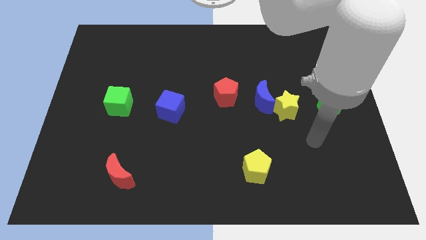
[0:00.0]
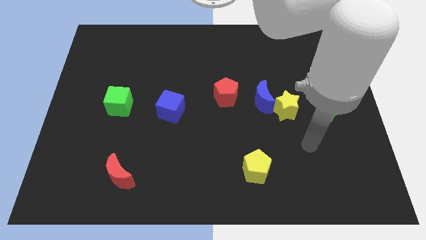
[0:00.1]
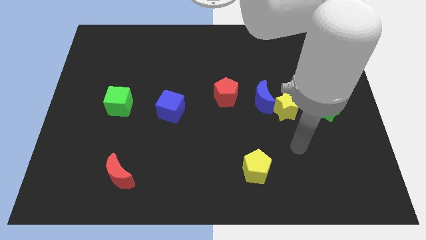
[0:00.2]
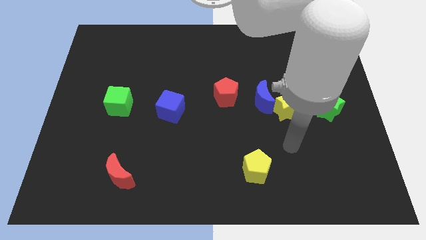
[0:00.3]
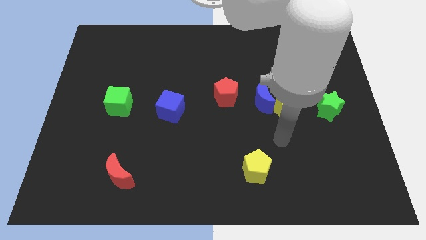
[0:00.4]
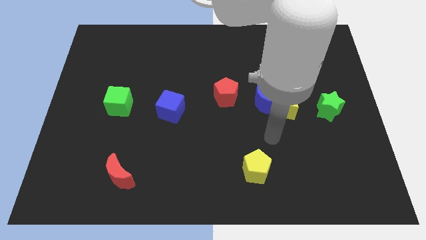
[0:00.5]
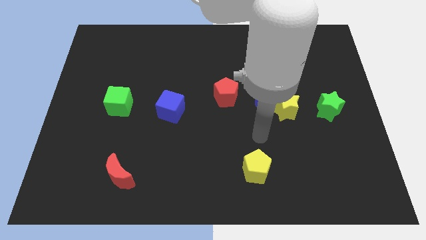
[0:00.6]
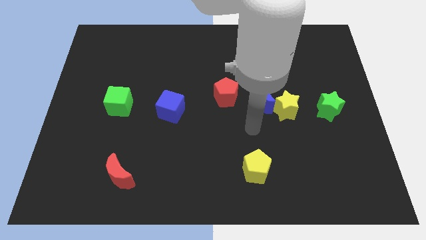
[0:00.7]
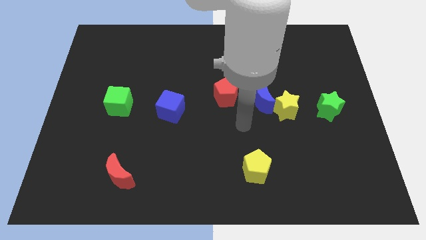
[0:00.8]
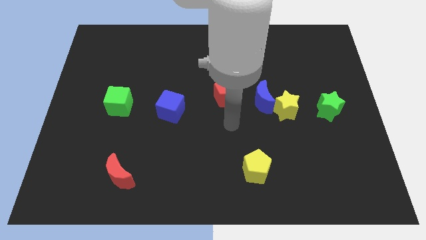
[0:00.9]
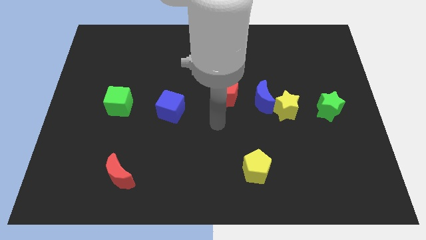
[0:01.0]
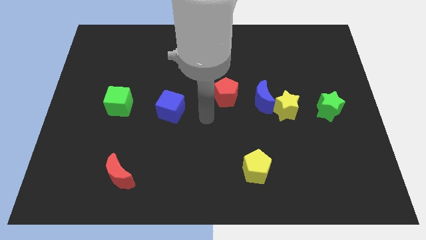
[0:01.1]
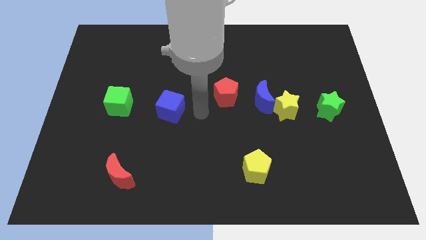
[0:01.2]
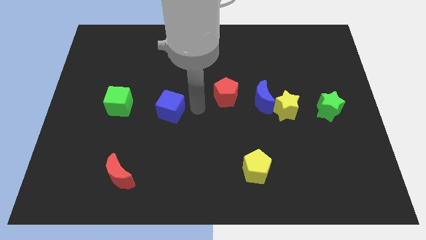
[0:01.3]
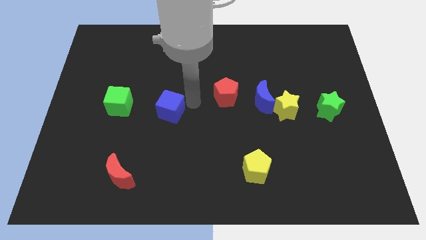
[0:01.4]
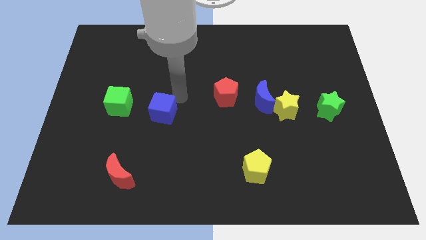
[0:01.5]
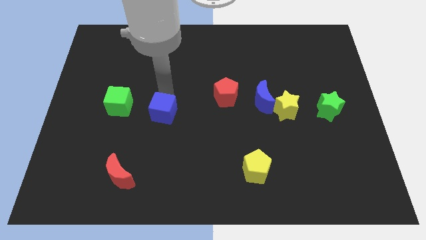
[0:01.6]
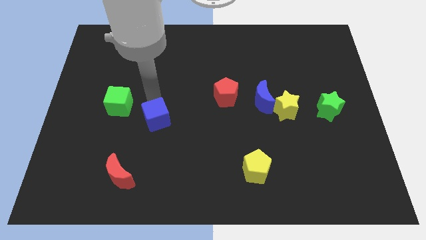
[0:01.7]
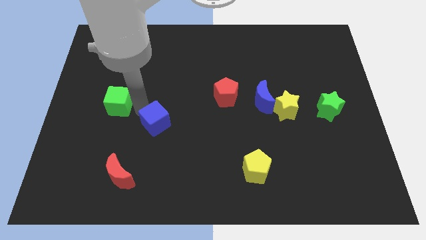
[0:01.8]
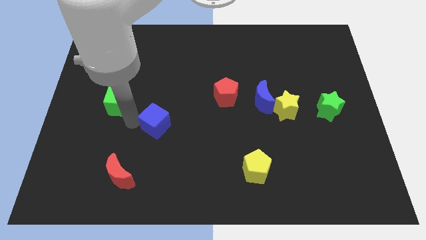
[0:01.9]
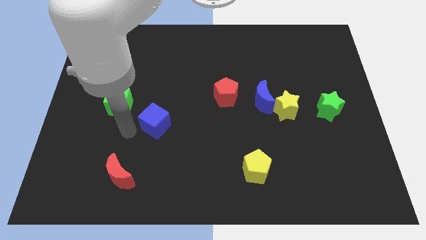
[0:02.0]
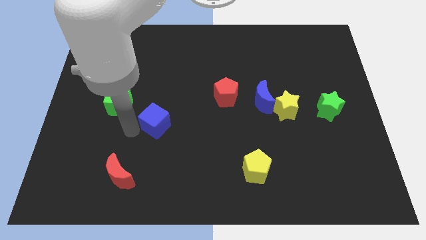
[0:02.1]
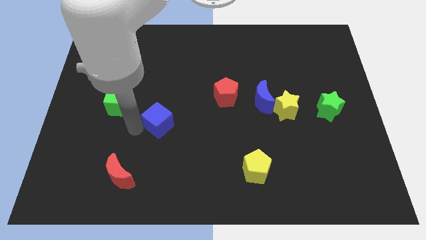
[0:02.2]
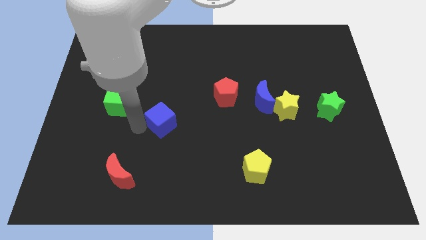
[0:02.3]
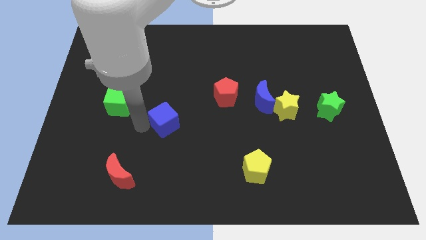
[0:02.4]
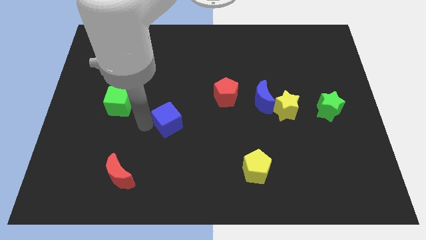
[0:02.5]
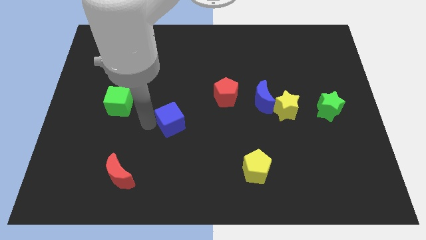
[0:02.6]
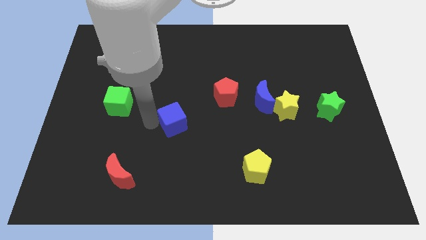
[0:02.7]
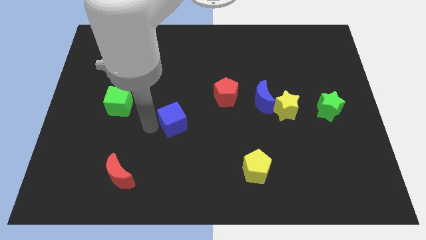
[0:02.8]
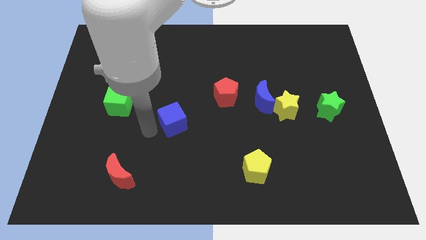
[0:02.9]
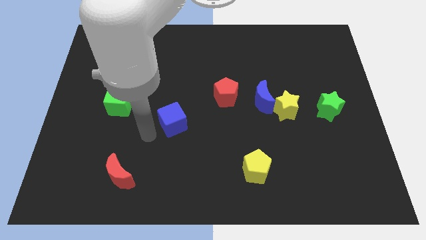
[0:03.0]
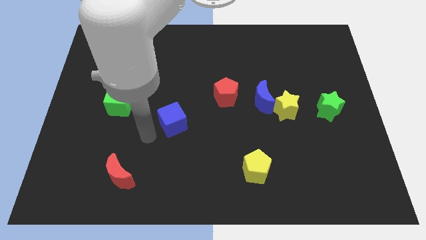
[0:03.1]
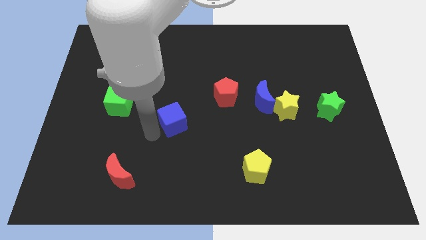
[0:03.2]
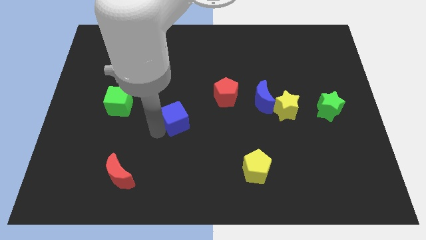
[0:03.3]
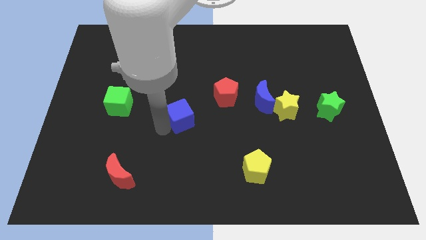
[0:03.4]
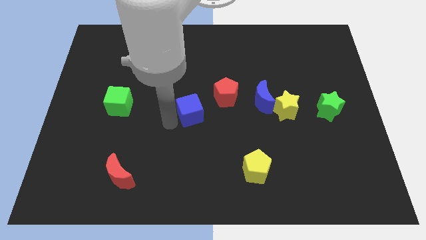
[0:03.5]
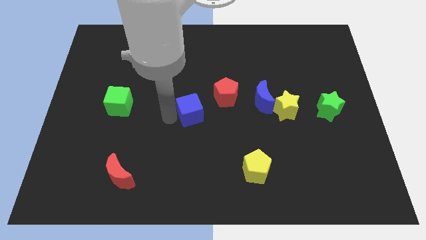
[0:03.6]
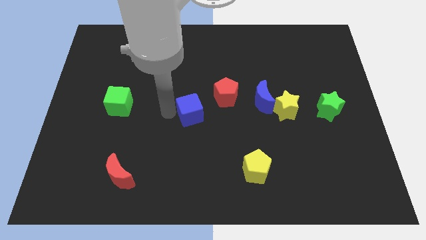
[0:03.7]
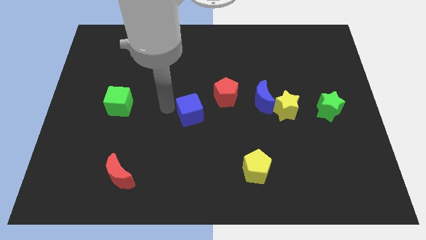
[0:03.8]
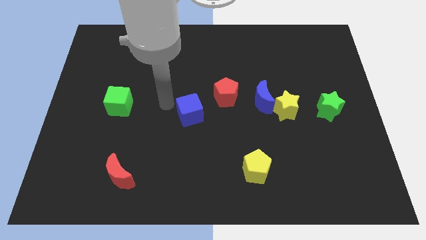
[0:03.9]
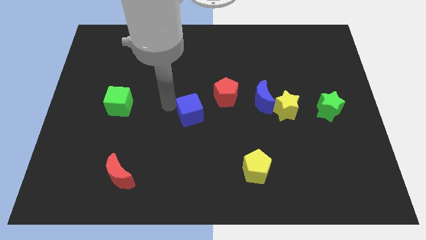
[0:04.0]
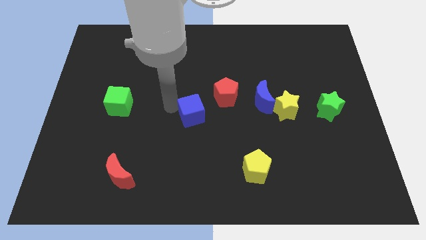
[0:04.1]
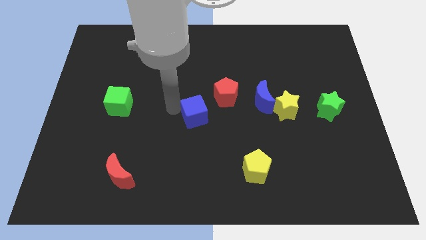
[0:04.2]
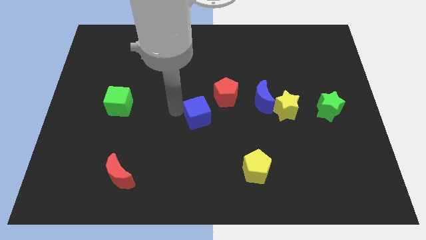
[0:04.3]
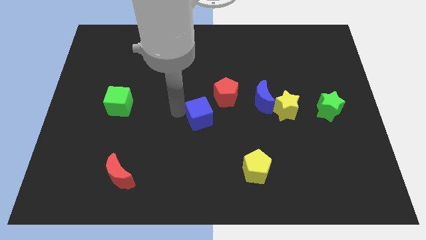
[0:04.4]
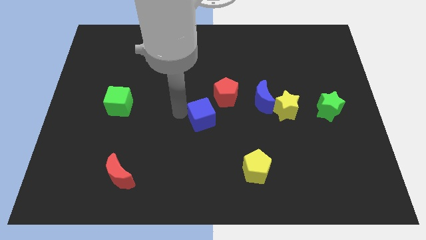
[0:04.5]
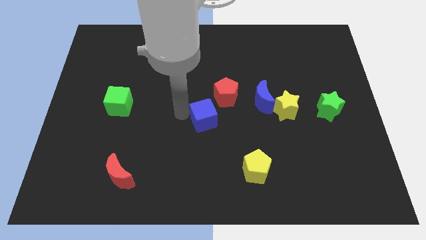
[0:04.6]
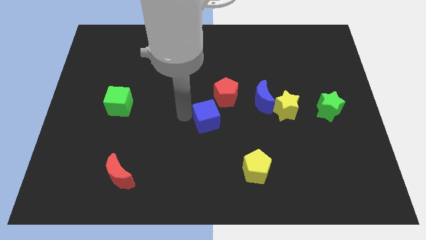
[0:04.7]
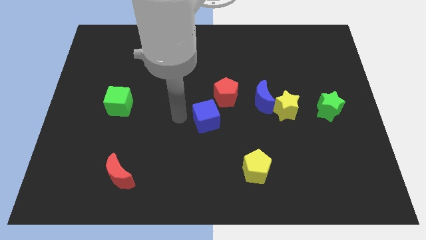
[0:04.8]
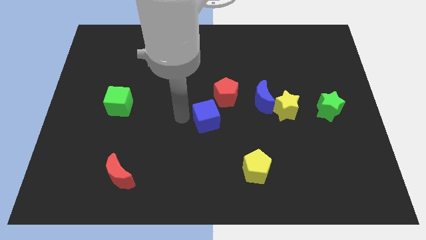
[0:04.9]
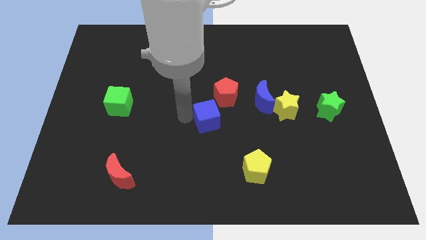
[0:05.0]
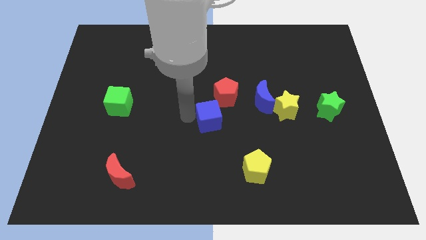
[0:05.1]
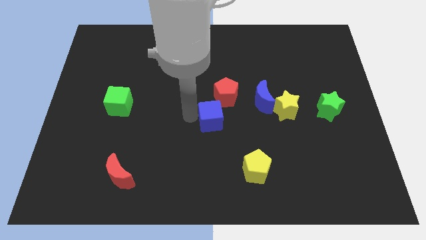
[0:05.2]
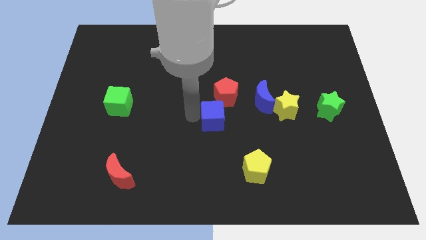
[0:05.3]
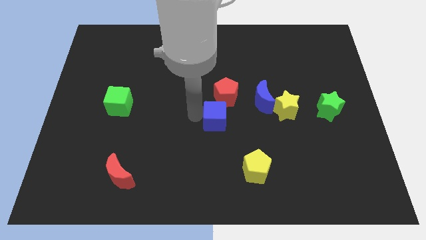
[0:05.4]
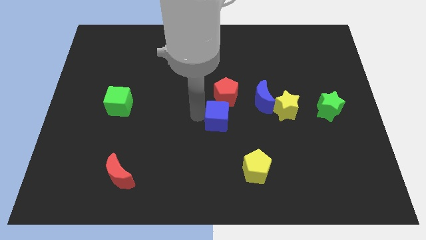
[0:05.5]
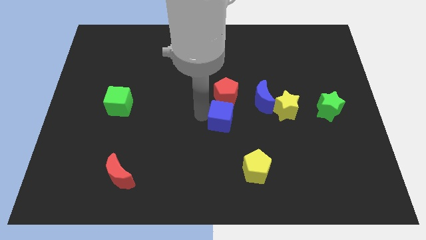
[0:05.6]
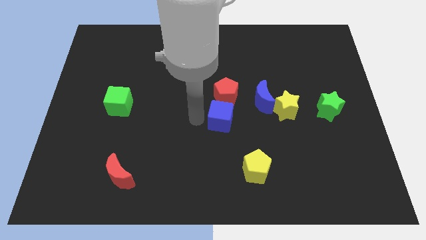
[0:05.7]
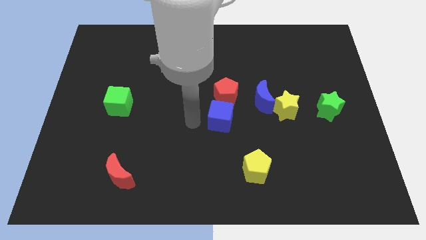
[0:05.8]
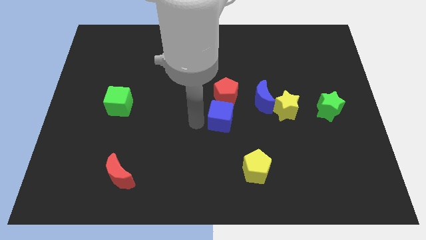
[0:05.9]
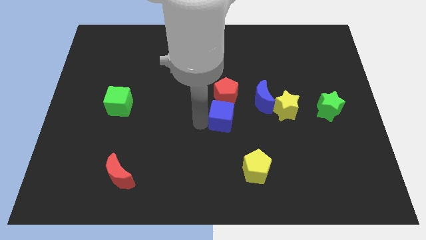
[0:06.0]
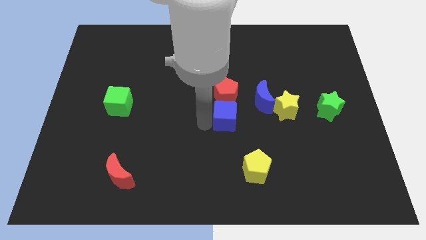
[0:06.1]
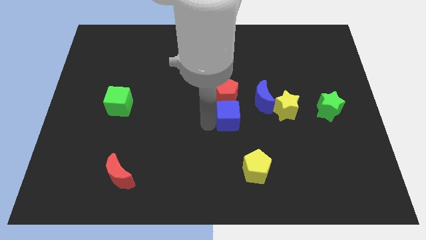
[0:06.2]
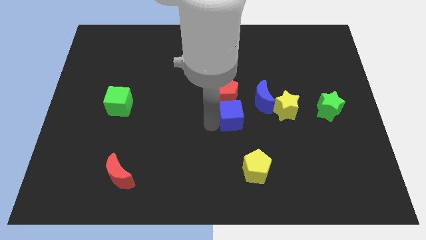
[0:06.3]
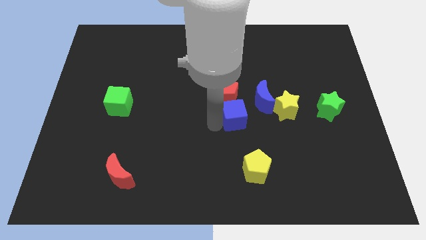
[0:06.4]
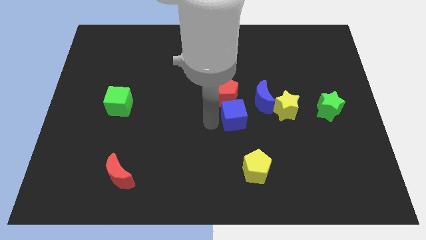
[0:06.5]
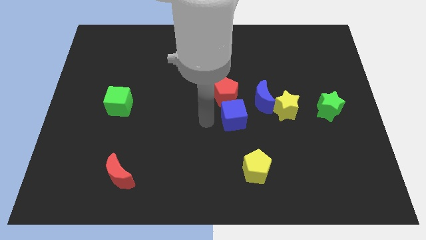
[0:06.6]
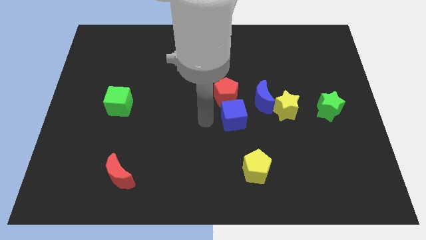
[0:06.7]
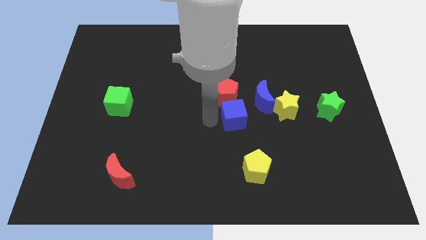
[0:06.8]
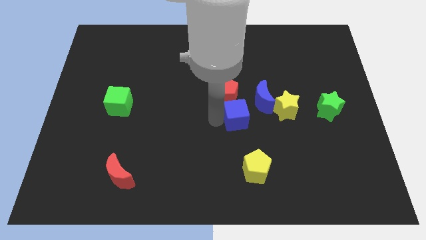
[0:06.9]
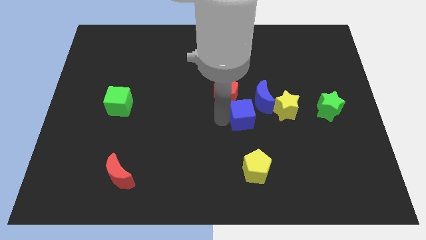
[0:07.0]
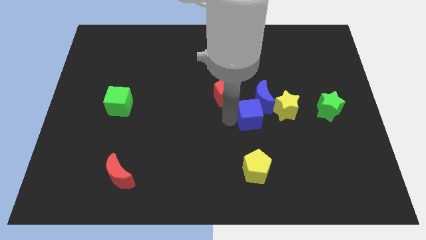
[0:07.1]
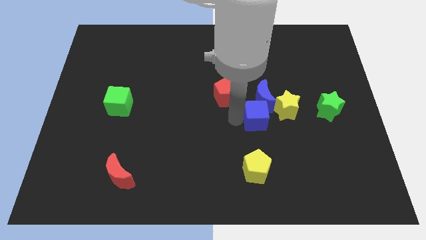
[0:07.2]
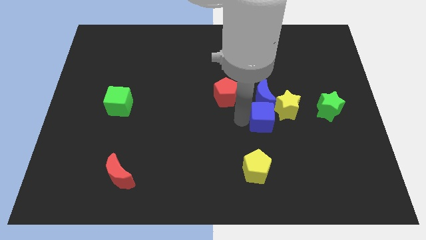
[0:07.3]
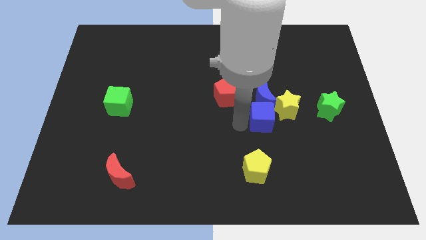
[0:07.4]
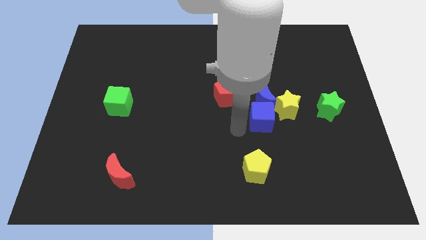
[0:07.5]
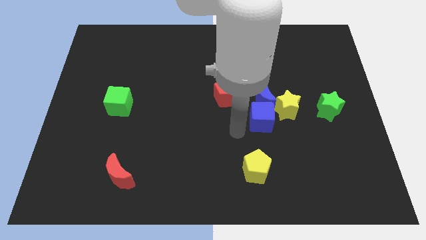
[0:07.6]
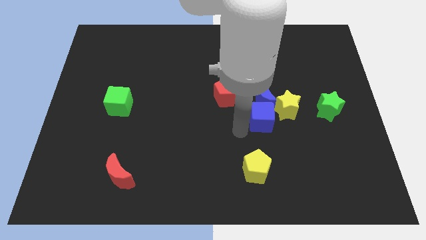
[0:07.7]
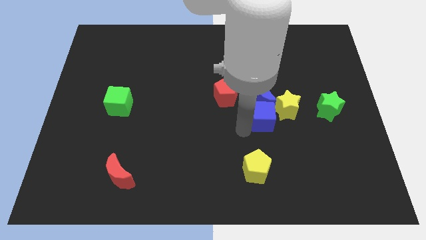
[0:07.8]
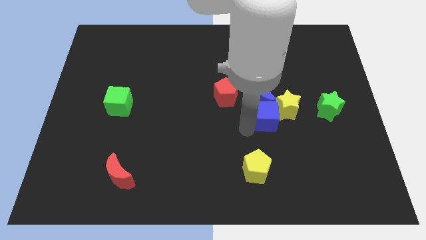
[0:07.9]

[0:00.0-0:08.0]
push the blue cube next to the yellow star
